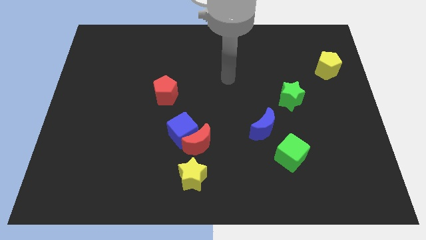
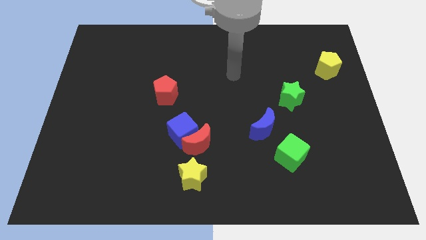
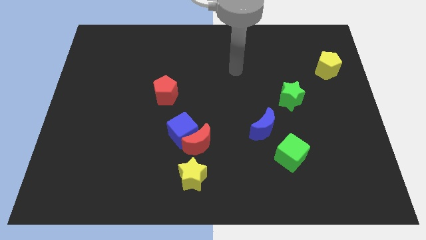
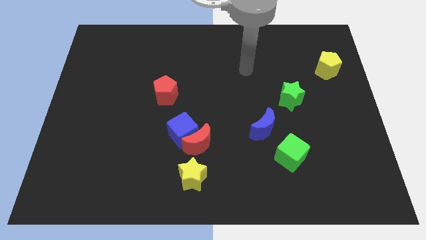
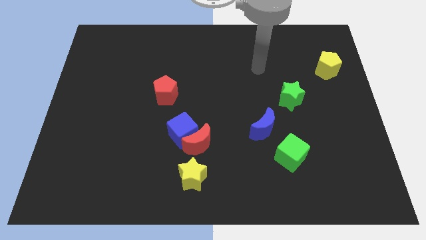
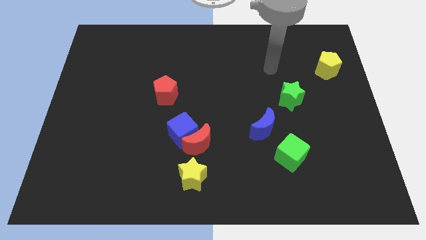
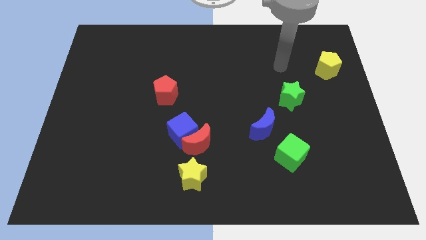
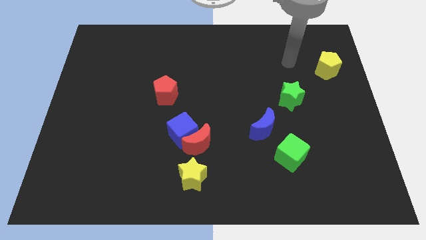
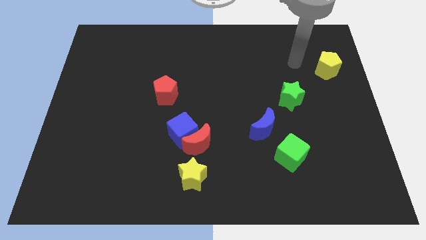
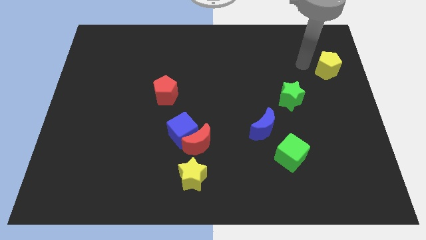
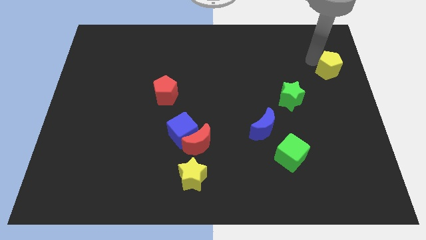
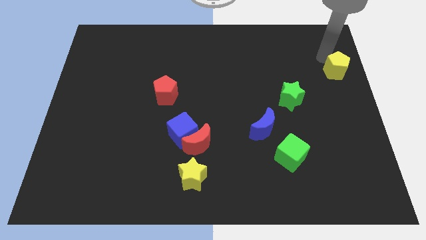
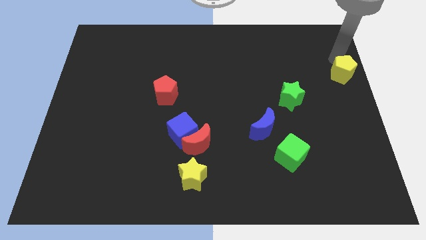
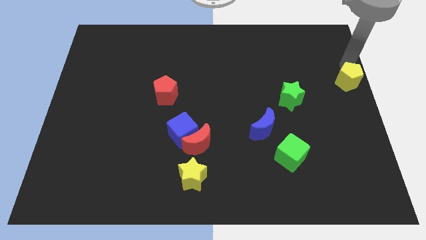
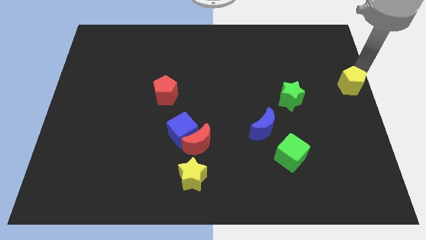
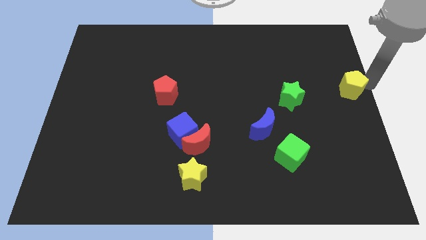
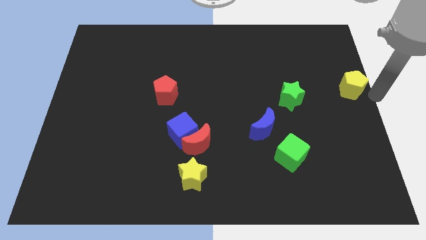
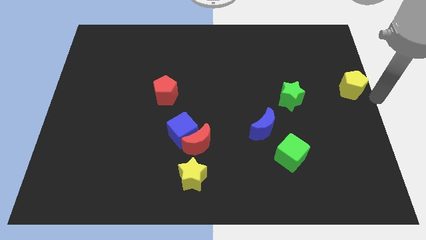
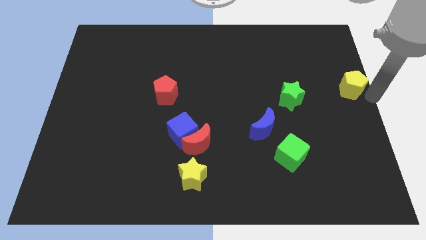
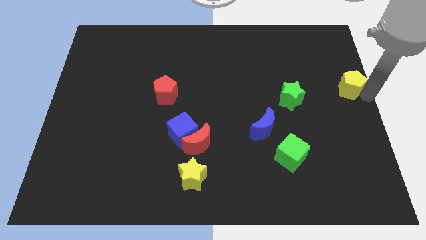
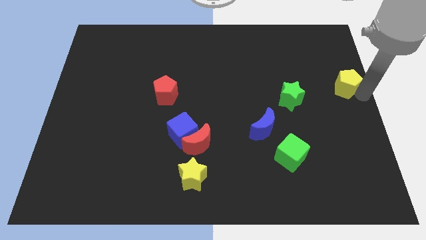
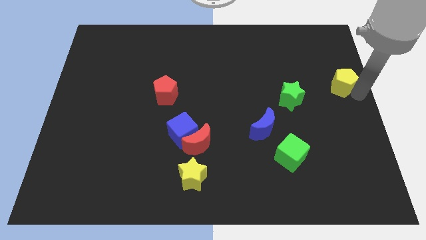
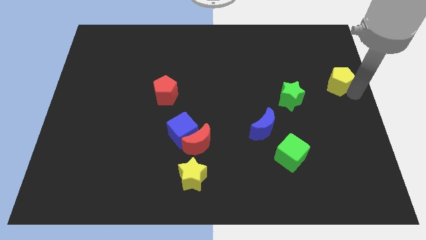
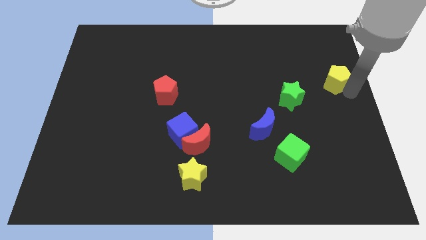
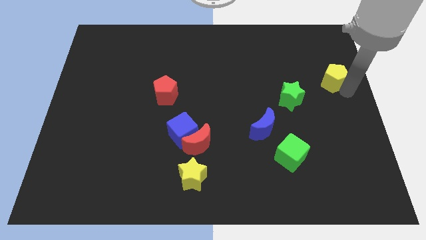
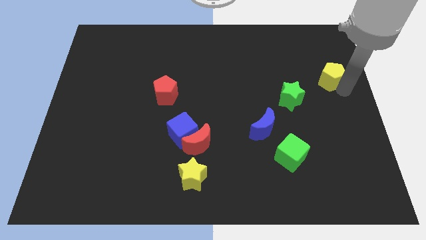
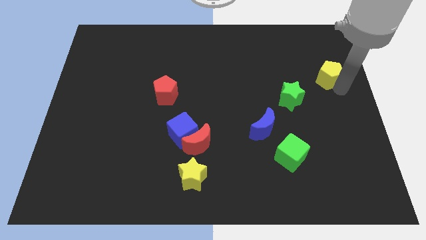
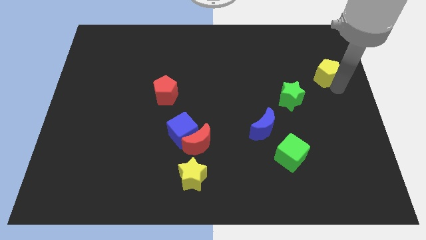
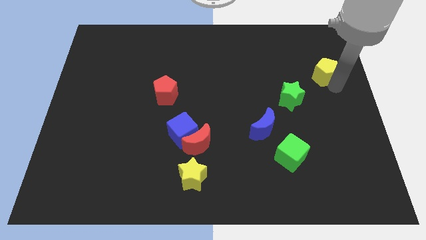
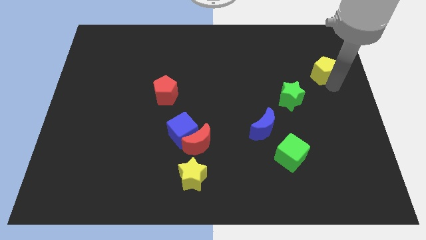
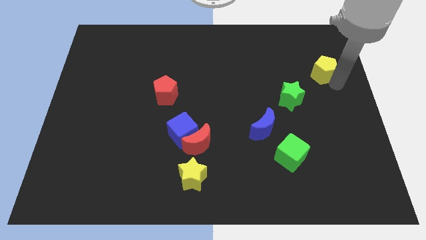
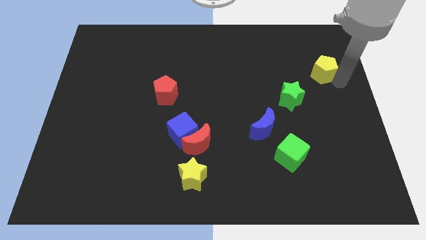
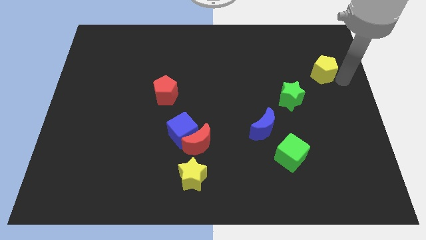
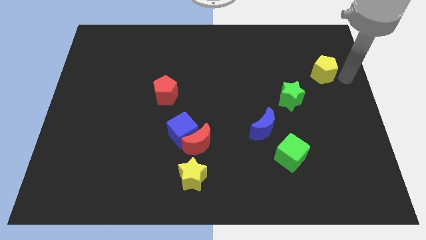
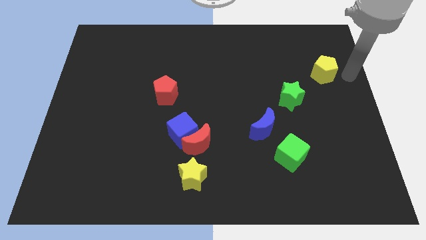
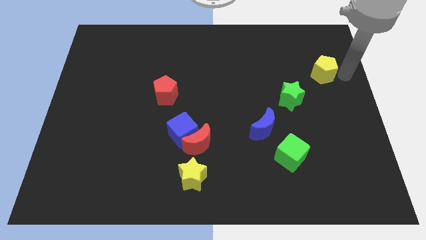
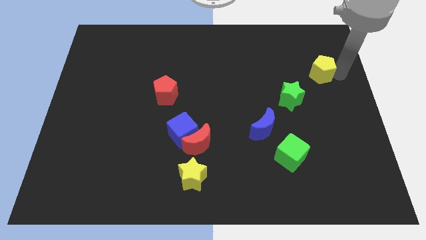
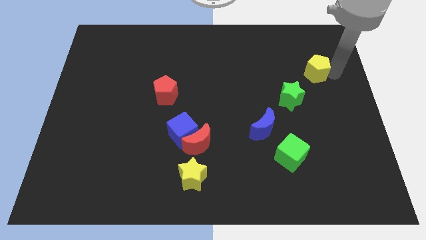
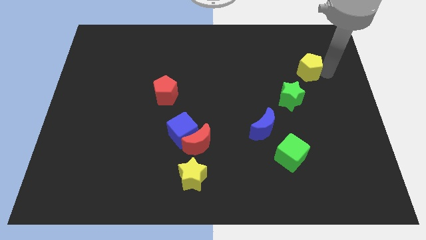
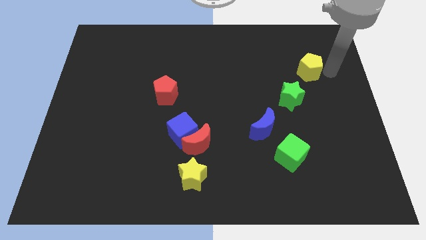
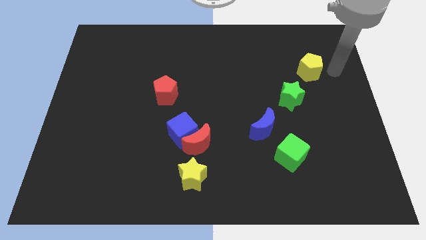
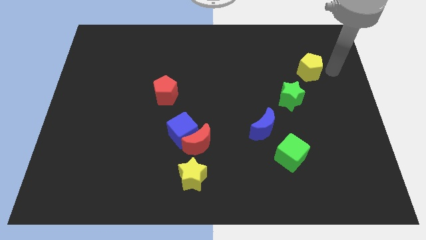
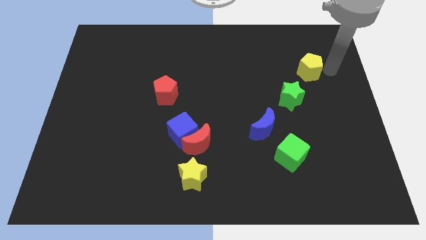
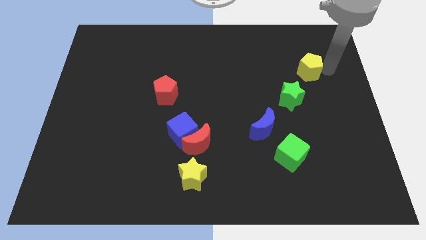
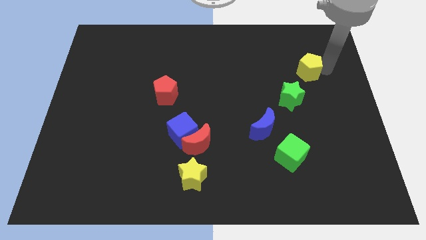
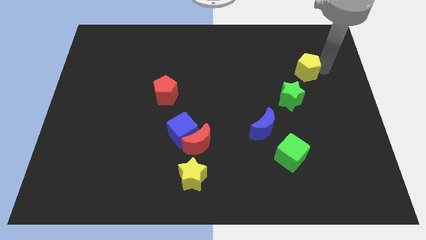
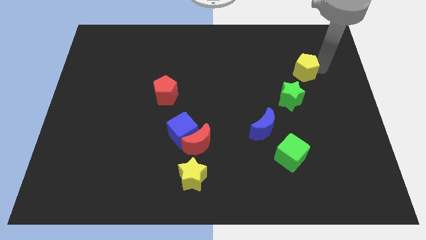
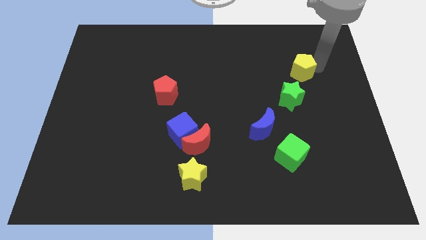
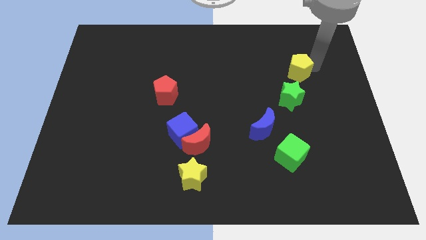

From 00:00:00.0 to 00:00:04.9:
slide the yellow pentagon left a little bit

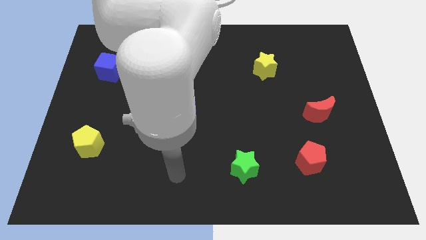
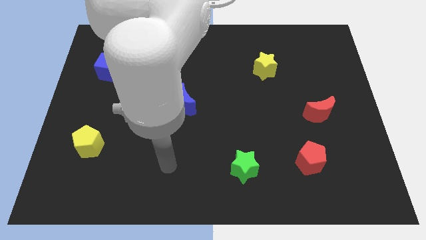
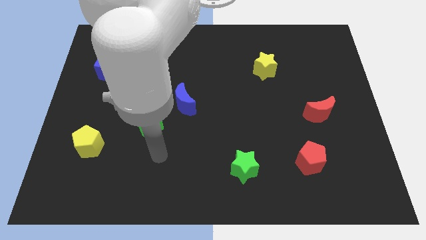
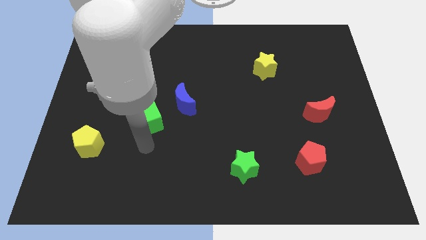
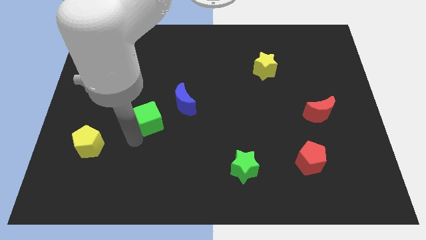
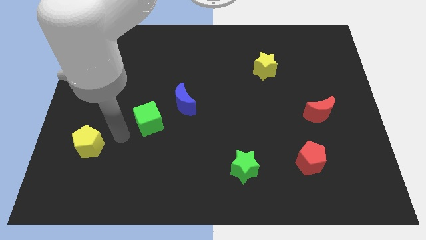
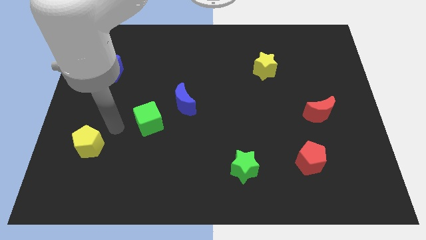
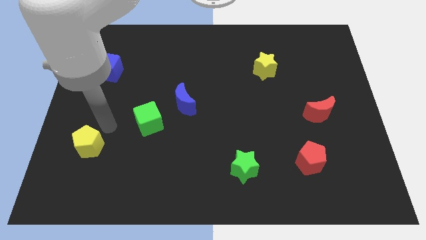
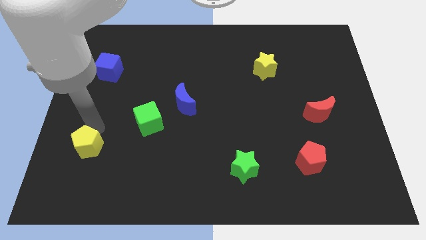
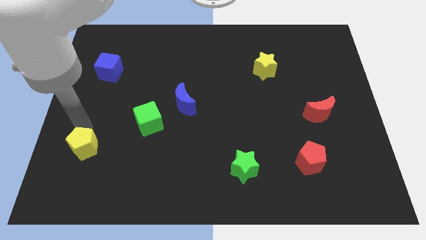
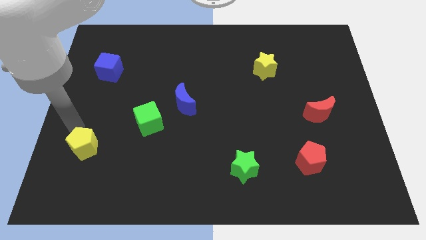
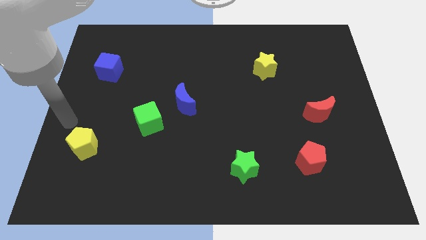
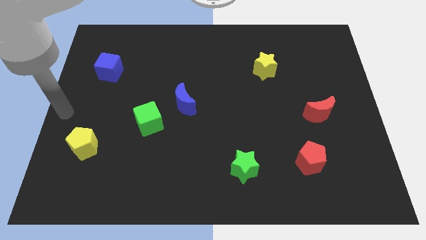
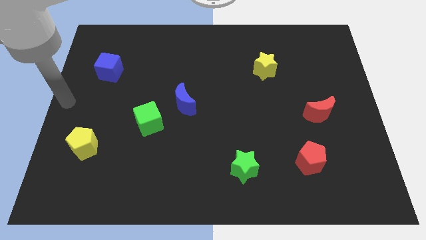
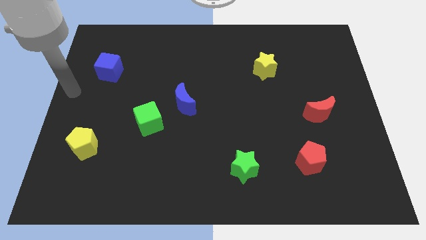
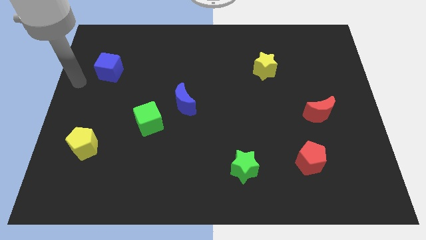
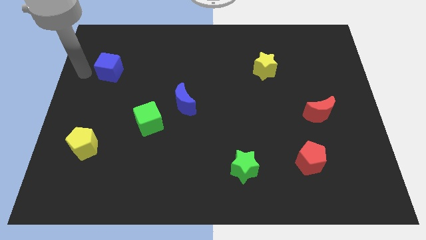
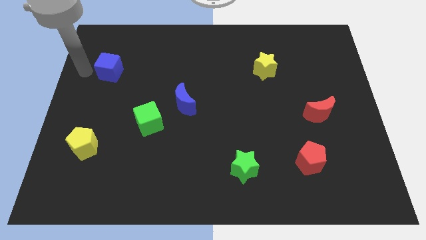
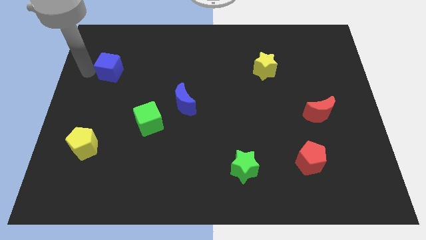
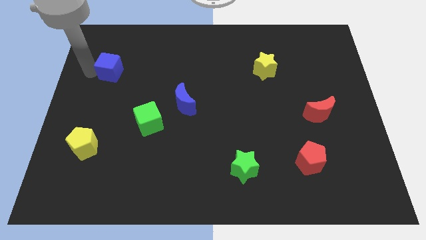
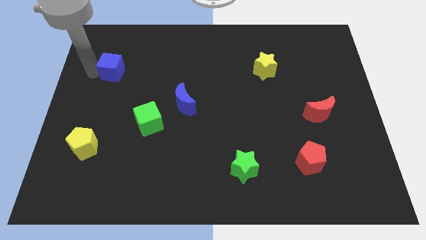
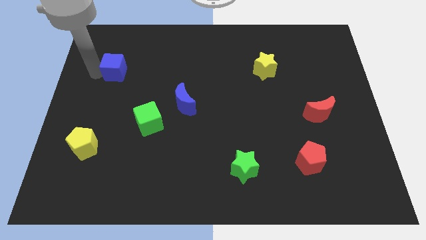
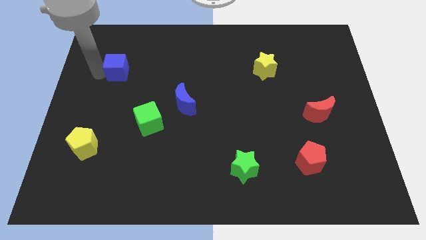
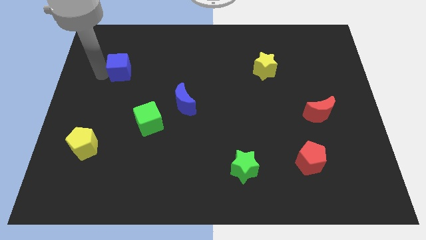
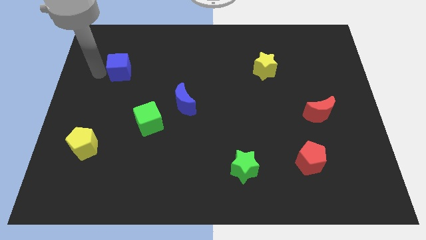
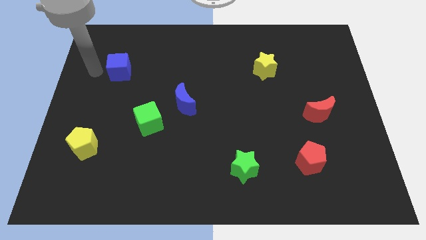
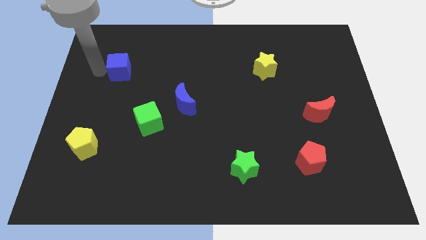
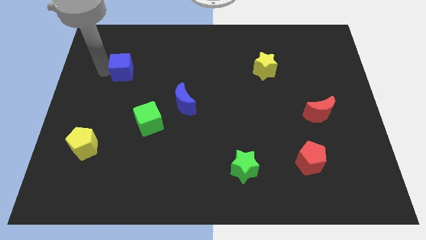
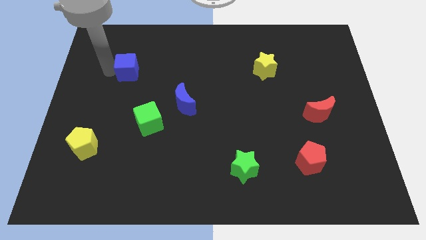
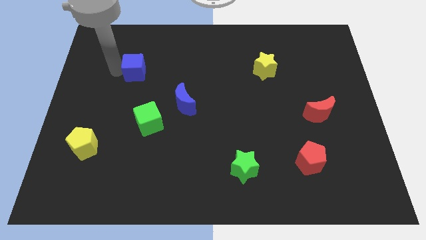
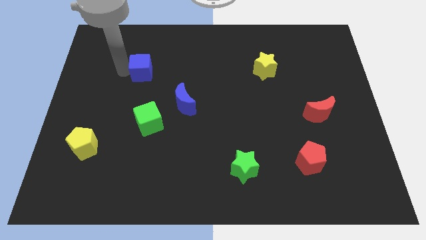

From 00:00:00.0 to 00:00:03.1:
slide the blue cube a little to the right

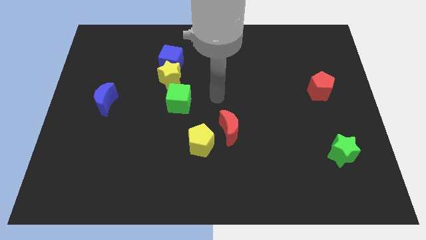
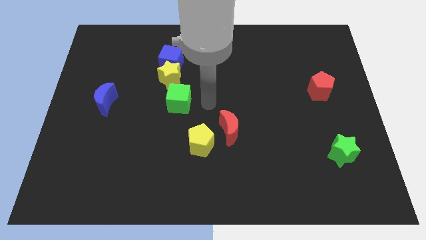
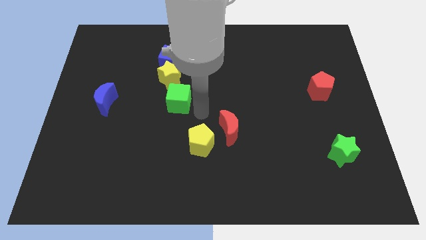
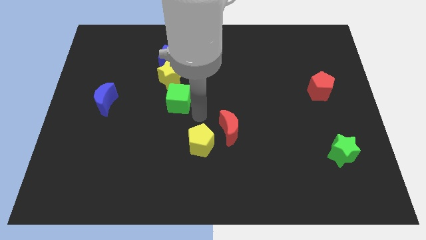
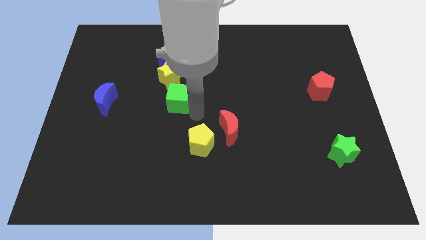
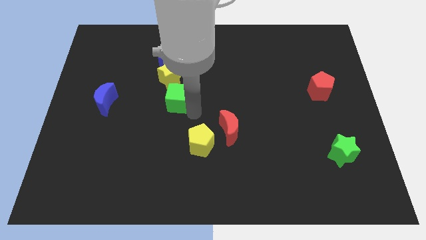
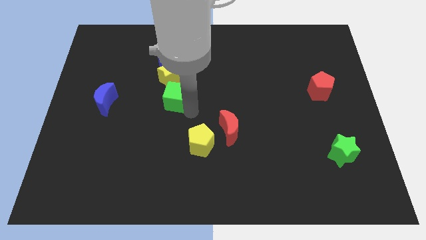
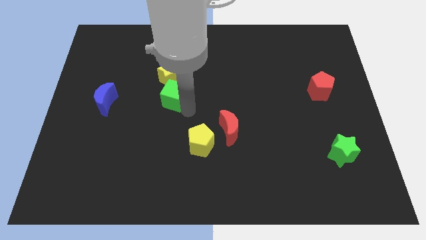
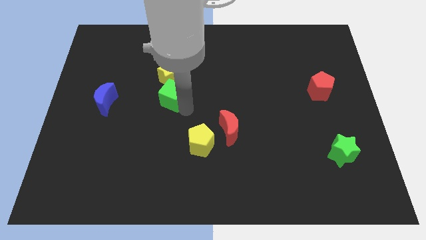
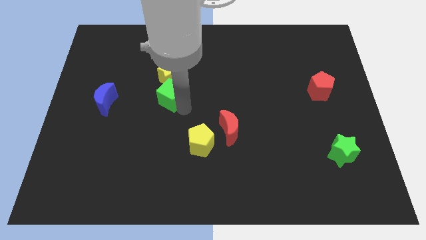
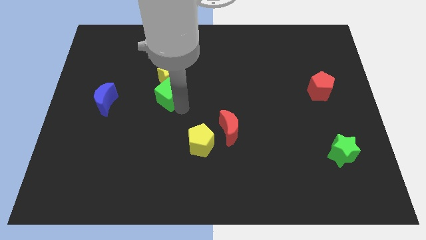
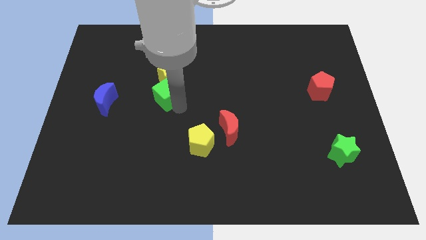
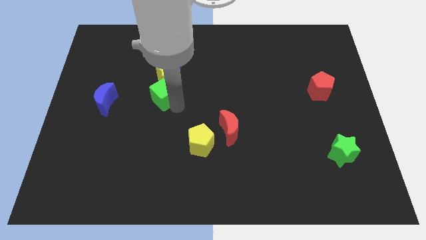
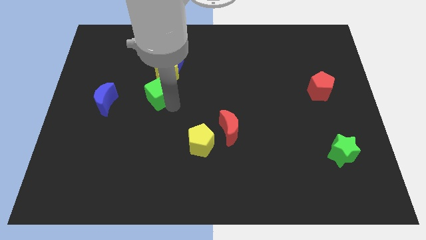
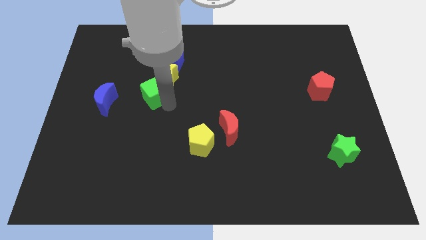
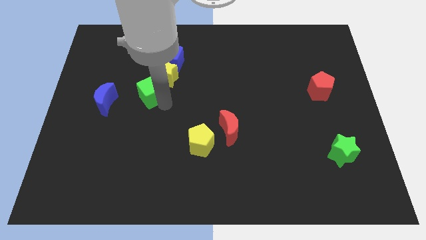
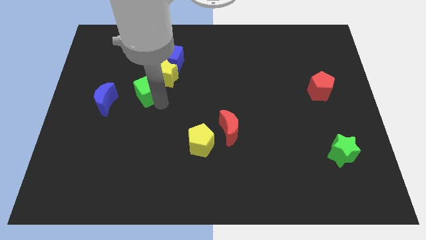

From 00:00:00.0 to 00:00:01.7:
move the green cube up and then to the left slightly
